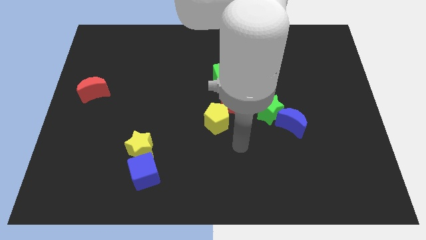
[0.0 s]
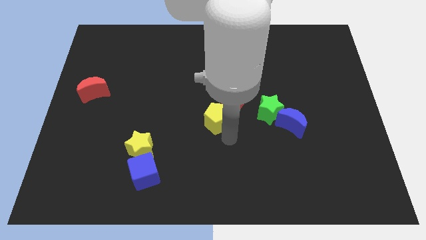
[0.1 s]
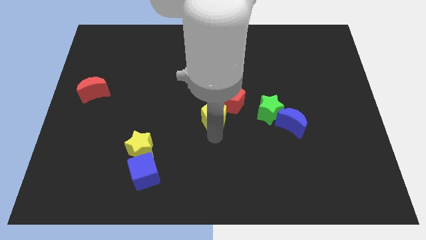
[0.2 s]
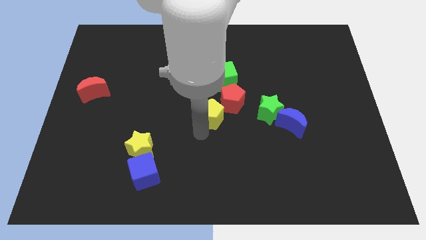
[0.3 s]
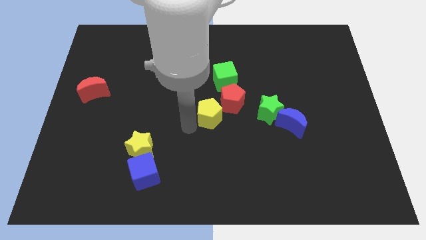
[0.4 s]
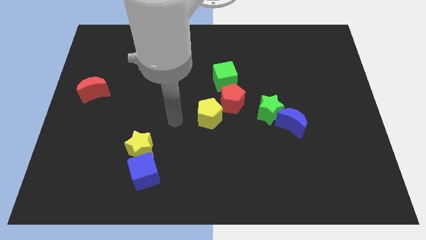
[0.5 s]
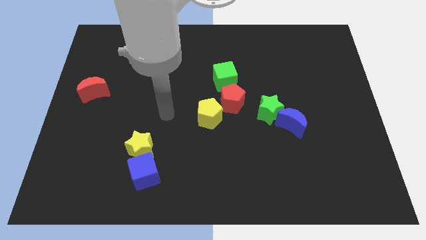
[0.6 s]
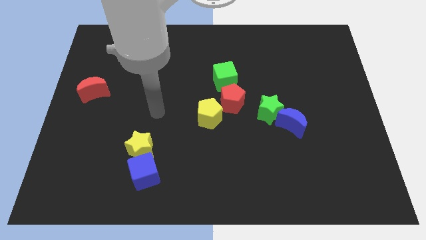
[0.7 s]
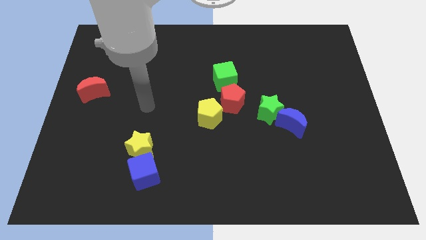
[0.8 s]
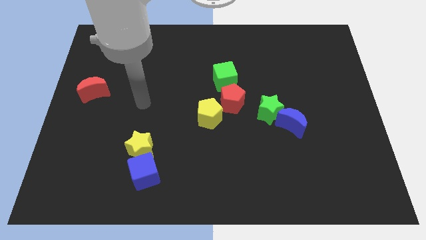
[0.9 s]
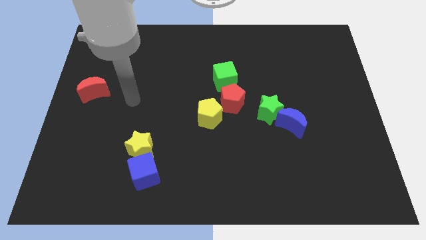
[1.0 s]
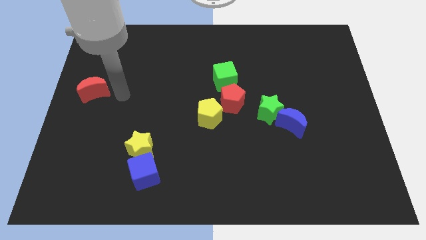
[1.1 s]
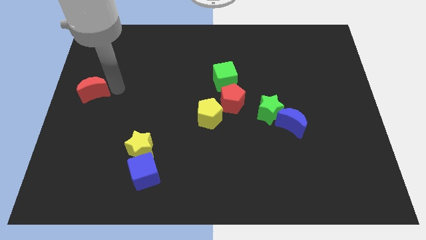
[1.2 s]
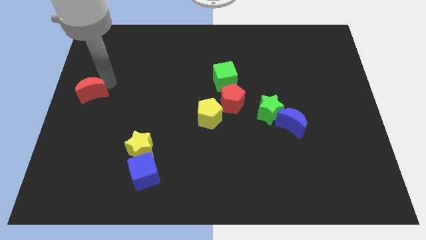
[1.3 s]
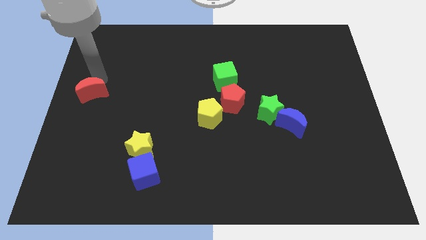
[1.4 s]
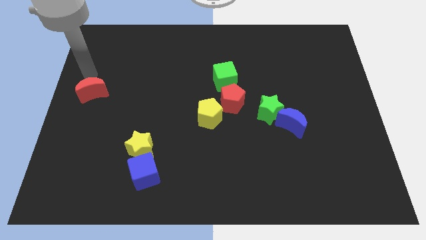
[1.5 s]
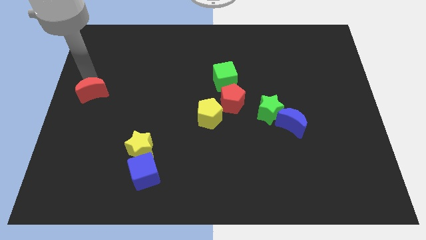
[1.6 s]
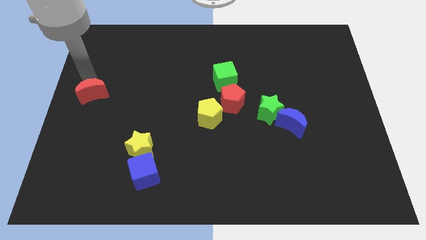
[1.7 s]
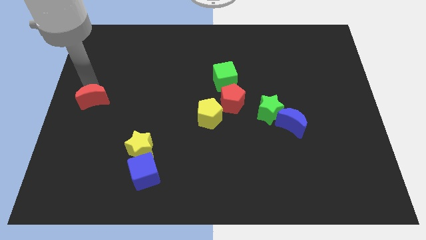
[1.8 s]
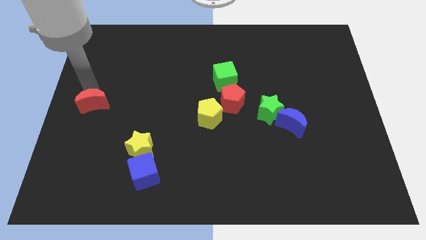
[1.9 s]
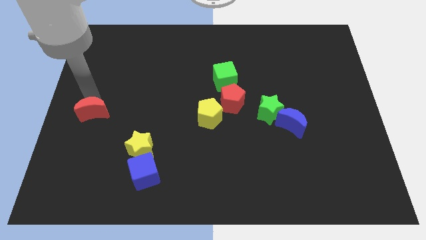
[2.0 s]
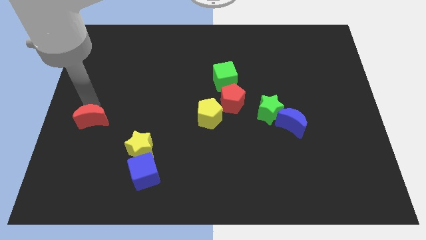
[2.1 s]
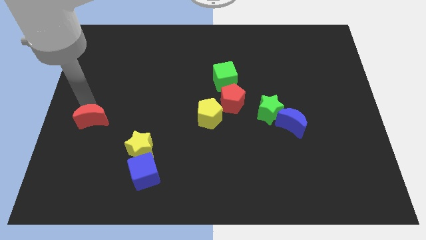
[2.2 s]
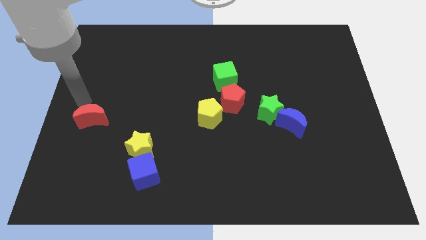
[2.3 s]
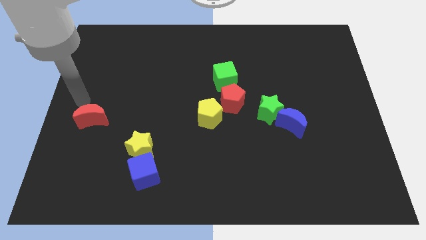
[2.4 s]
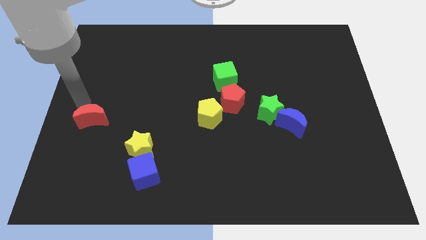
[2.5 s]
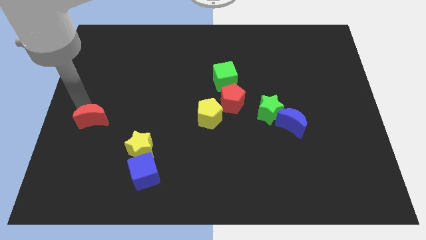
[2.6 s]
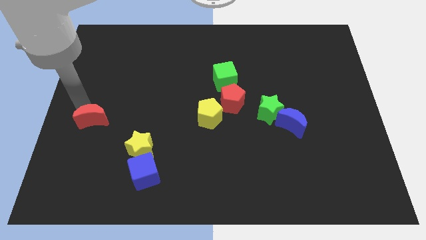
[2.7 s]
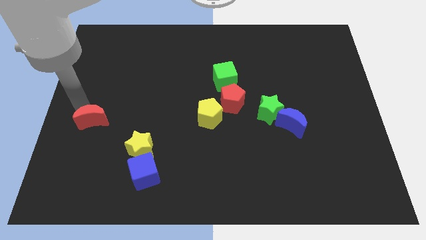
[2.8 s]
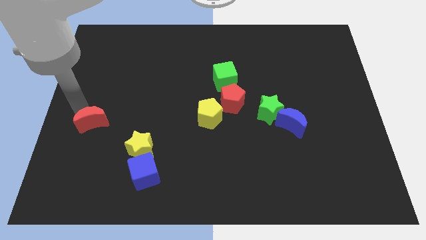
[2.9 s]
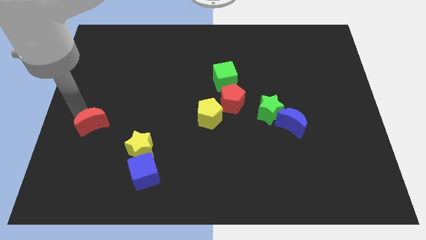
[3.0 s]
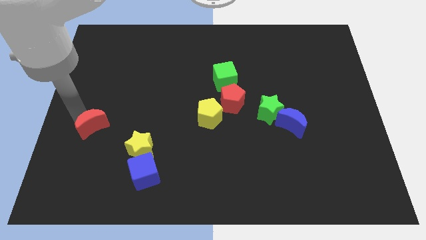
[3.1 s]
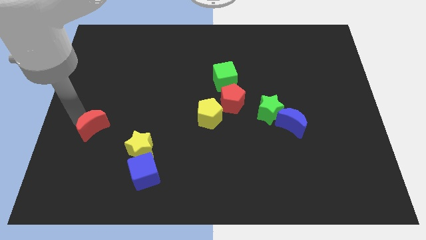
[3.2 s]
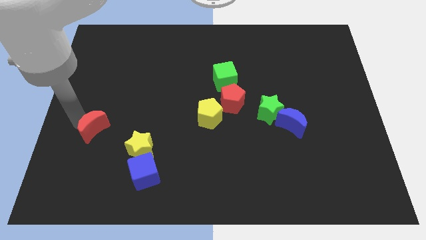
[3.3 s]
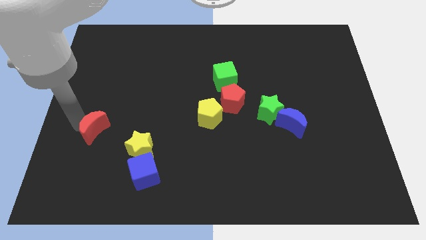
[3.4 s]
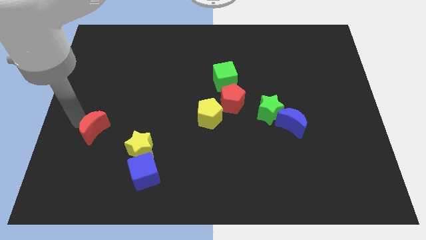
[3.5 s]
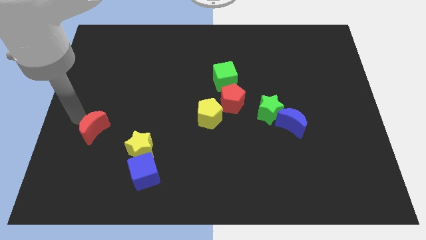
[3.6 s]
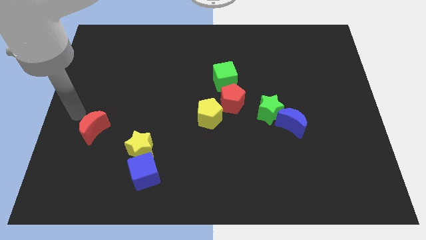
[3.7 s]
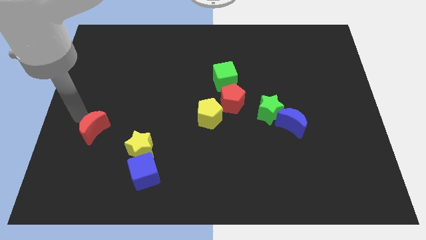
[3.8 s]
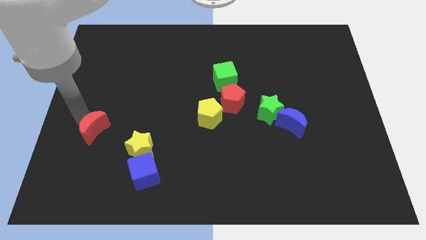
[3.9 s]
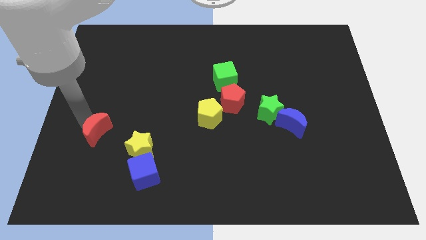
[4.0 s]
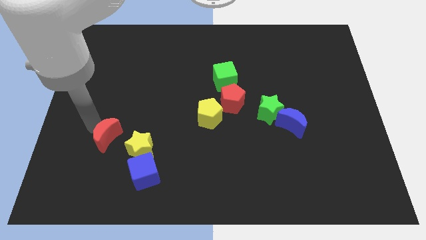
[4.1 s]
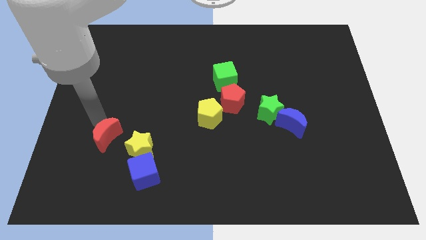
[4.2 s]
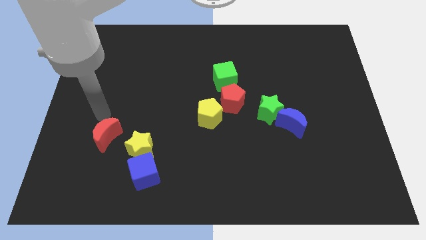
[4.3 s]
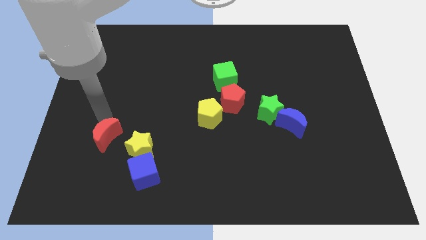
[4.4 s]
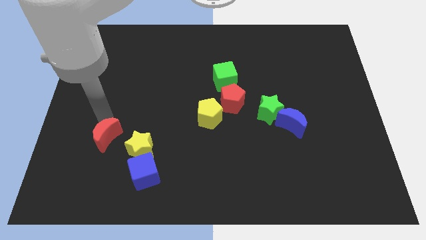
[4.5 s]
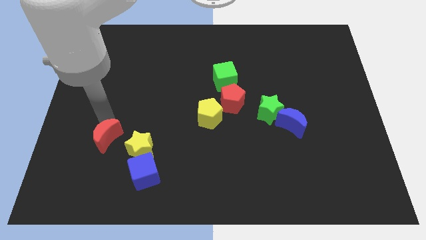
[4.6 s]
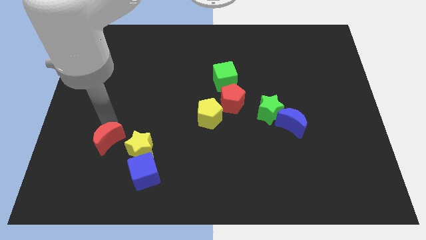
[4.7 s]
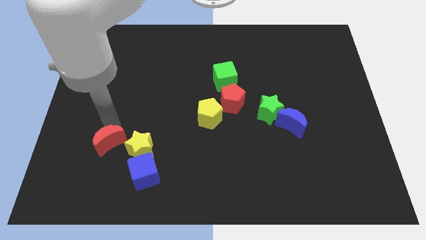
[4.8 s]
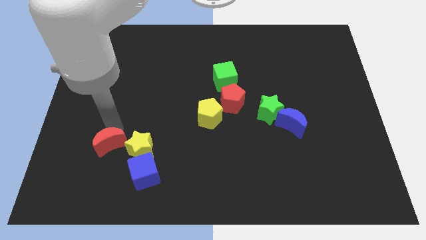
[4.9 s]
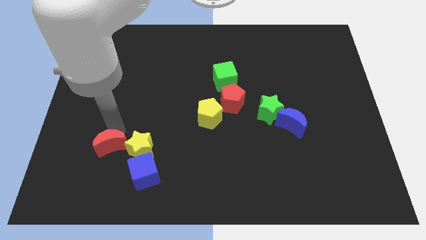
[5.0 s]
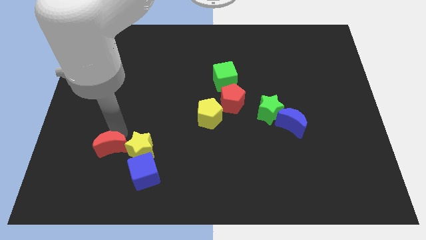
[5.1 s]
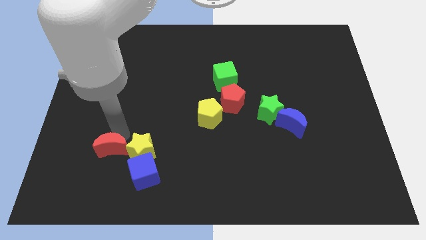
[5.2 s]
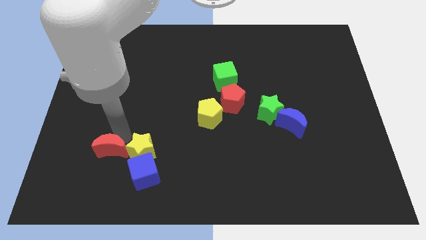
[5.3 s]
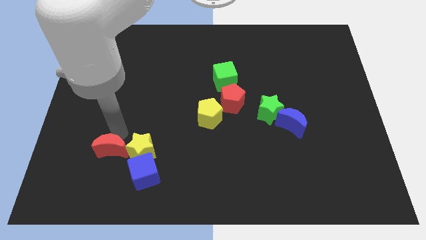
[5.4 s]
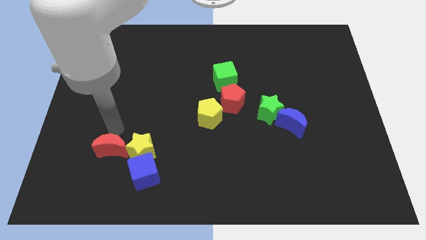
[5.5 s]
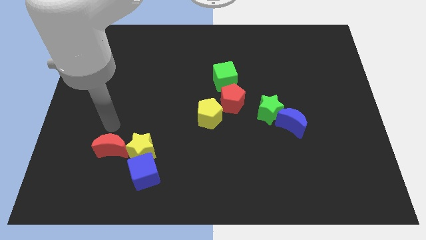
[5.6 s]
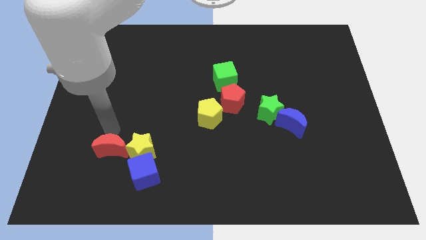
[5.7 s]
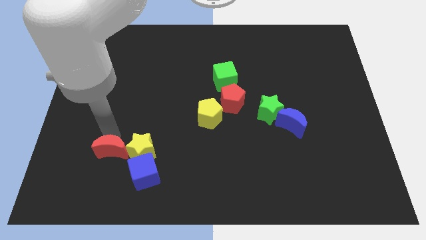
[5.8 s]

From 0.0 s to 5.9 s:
push the red moon to the bottom left of the yellow star

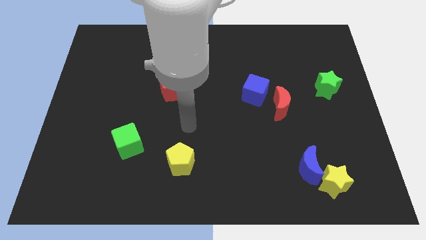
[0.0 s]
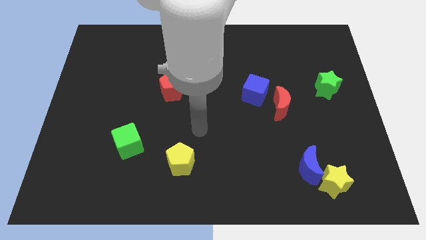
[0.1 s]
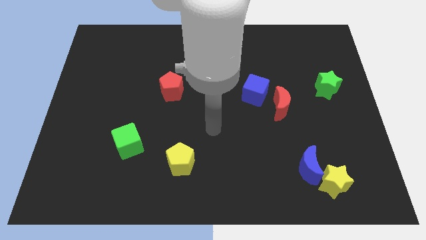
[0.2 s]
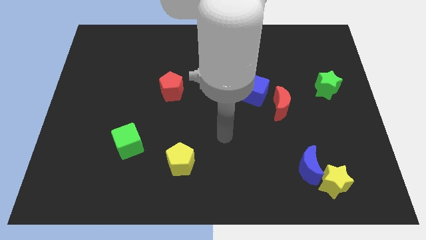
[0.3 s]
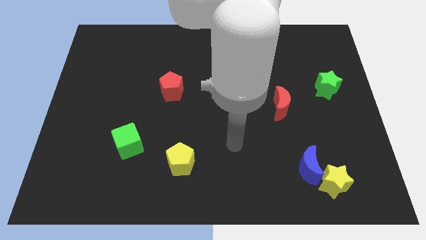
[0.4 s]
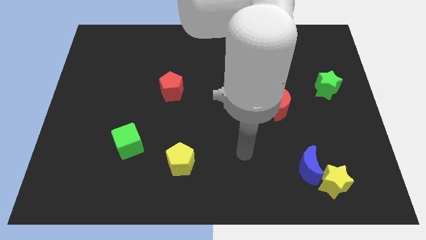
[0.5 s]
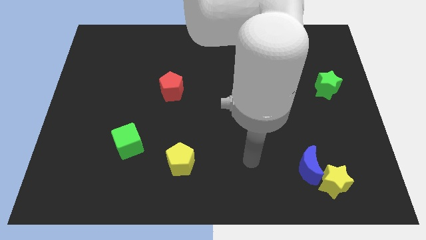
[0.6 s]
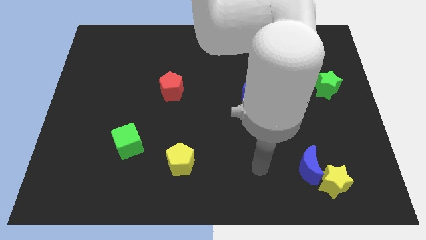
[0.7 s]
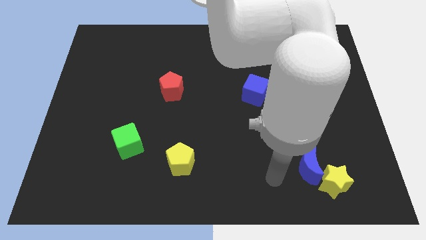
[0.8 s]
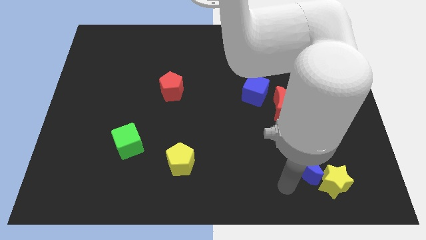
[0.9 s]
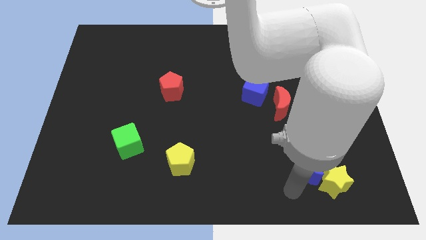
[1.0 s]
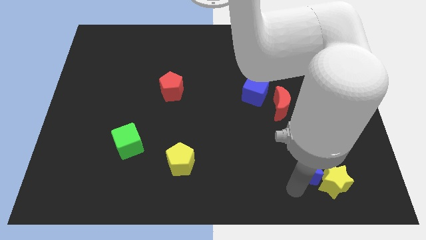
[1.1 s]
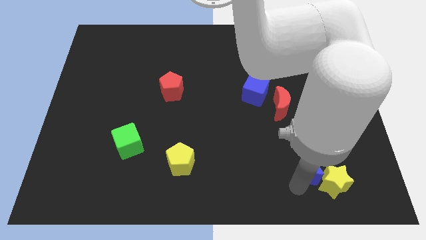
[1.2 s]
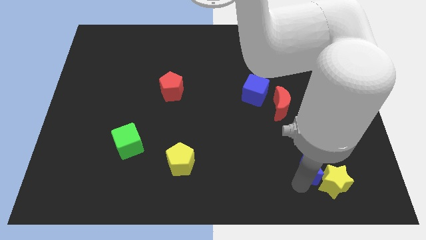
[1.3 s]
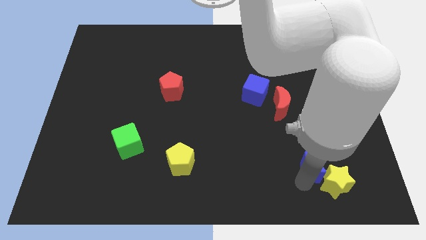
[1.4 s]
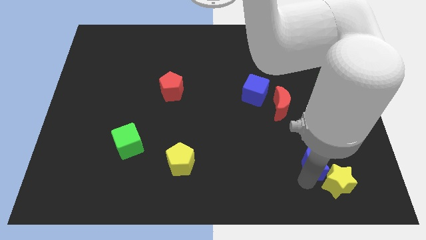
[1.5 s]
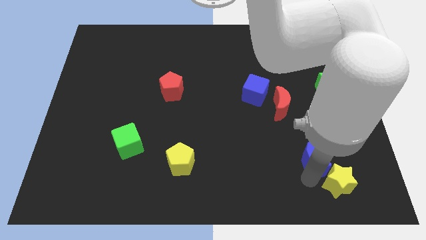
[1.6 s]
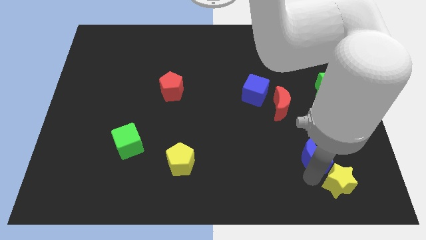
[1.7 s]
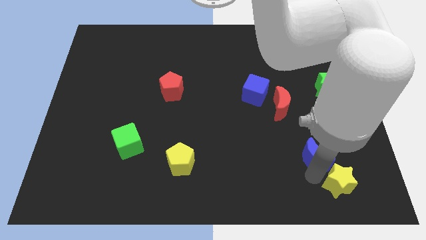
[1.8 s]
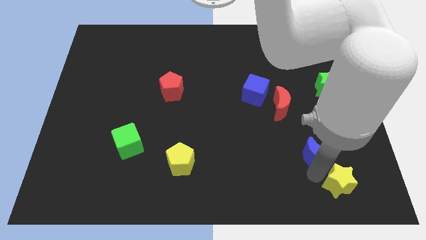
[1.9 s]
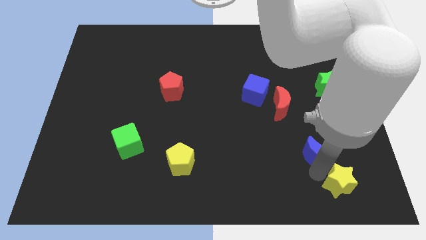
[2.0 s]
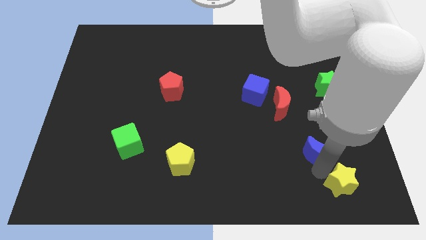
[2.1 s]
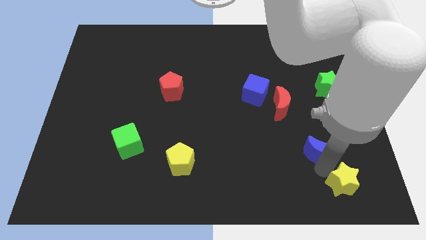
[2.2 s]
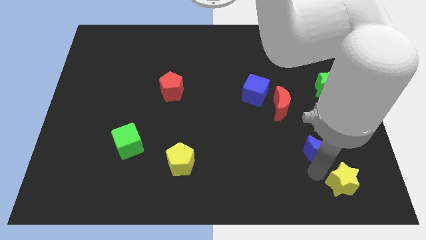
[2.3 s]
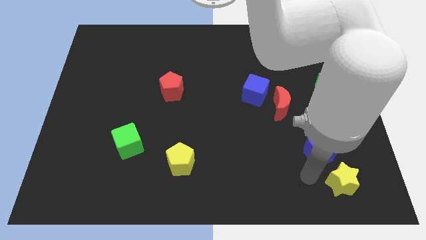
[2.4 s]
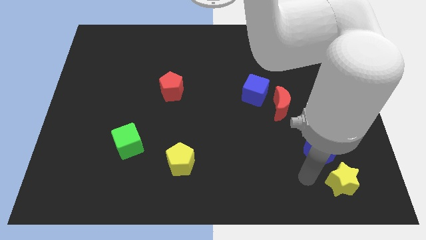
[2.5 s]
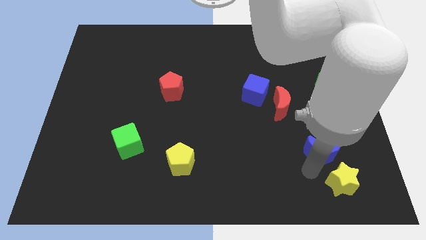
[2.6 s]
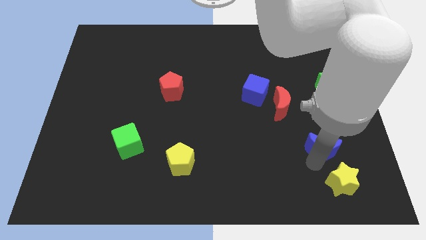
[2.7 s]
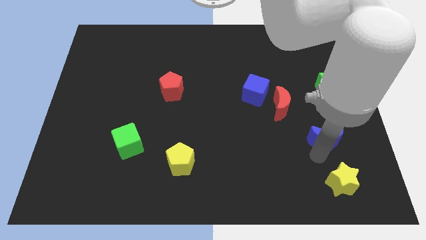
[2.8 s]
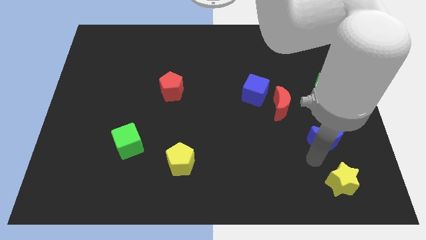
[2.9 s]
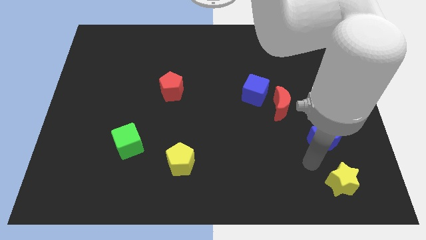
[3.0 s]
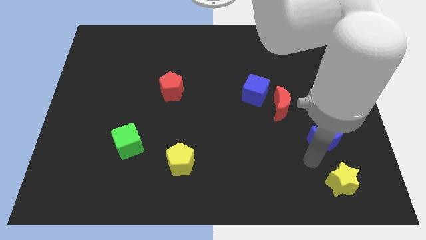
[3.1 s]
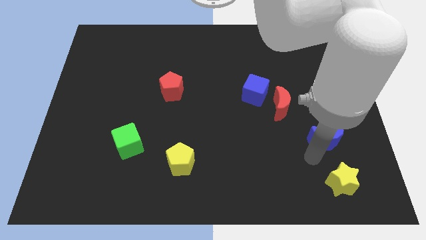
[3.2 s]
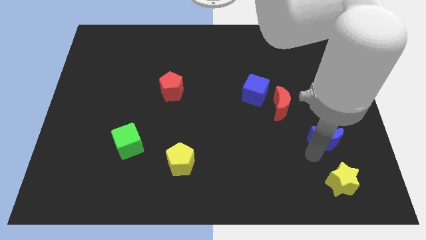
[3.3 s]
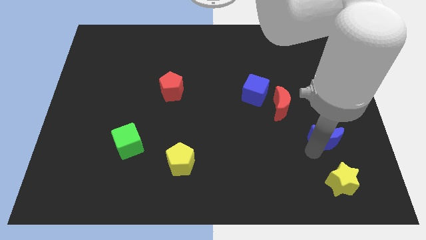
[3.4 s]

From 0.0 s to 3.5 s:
slide the blue moon to the bottom of the green star
